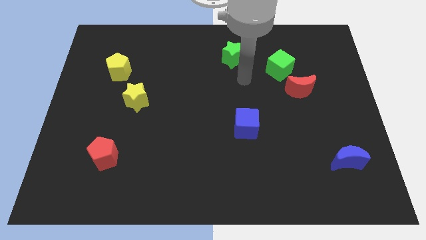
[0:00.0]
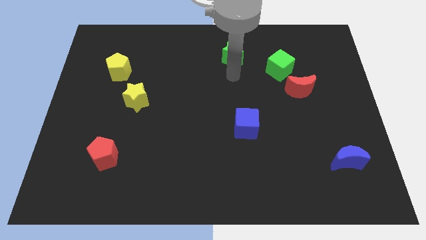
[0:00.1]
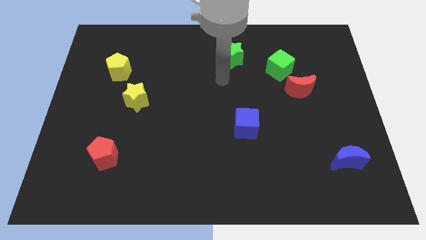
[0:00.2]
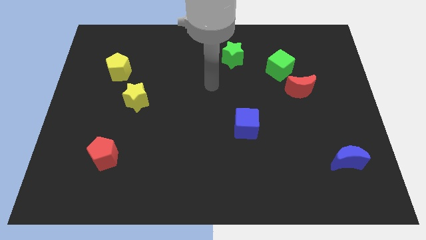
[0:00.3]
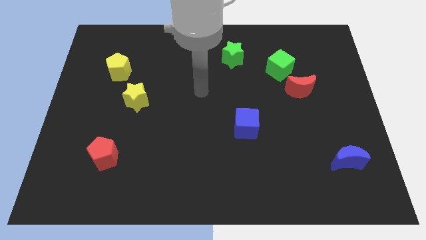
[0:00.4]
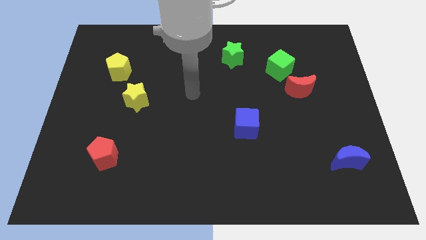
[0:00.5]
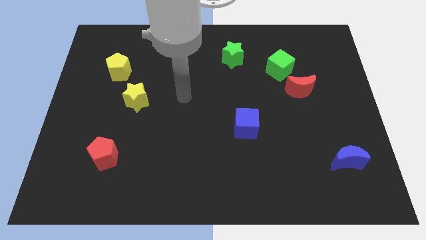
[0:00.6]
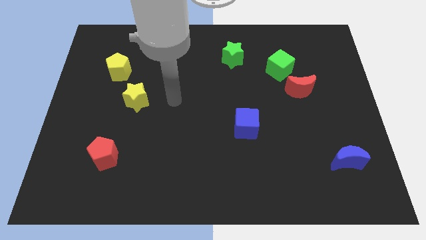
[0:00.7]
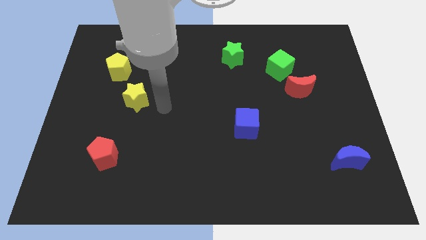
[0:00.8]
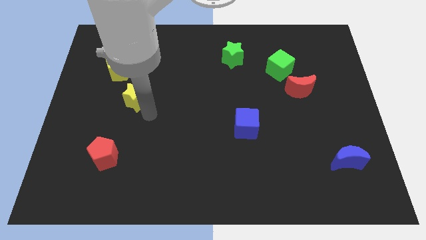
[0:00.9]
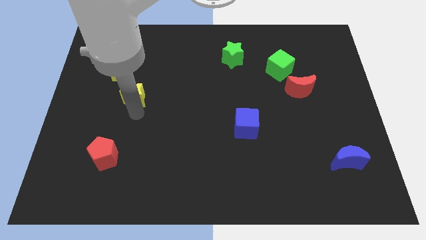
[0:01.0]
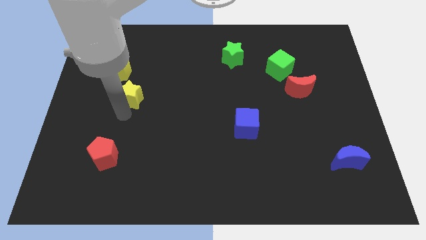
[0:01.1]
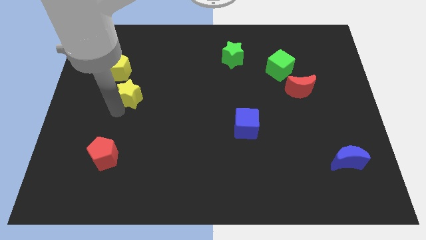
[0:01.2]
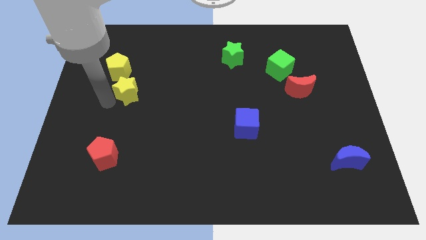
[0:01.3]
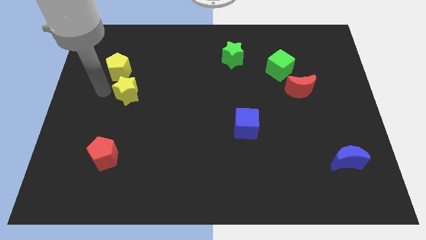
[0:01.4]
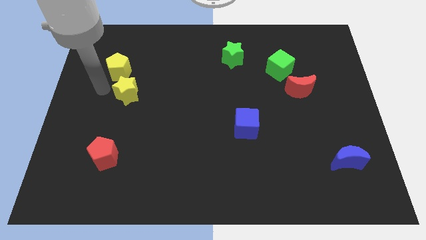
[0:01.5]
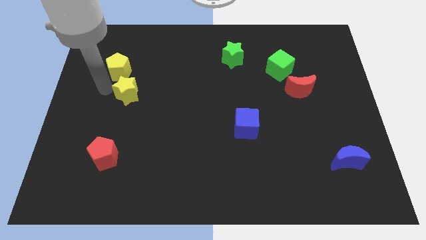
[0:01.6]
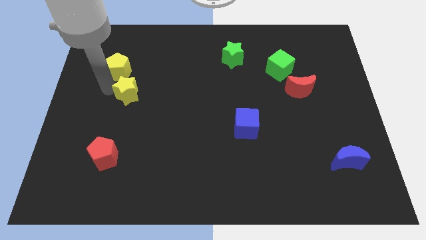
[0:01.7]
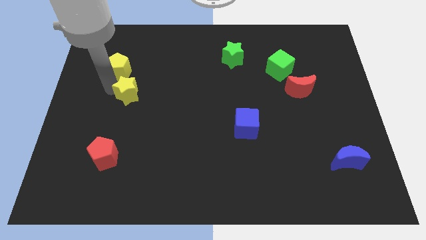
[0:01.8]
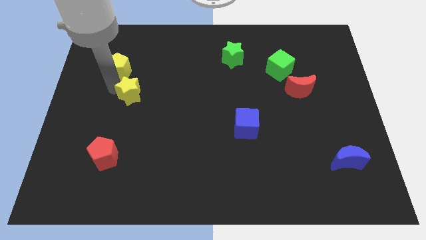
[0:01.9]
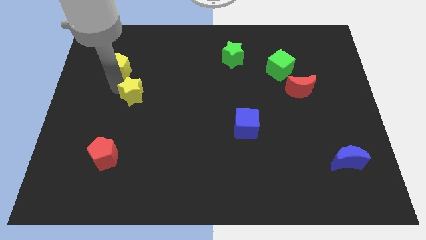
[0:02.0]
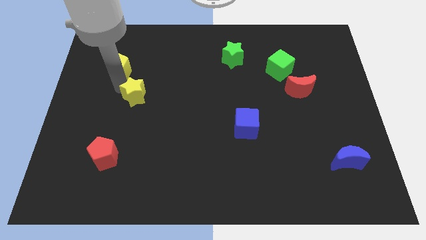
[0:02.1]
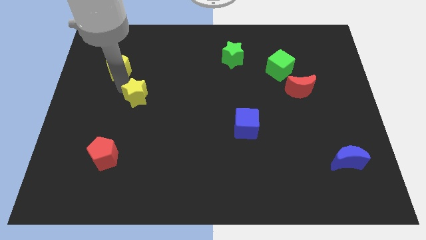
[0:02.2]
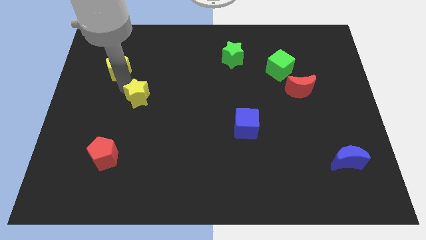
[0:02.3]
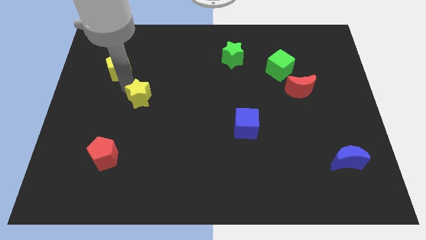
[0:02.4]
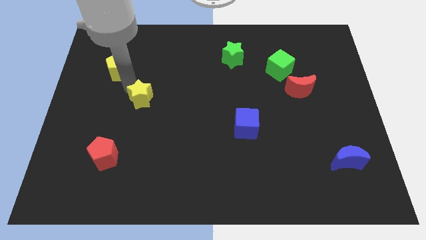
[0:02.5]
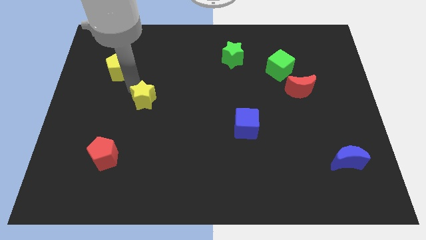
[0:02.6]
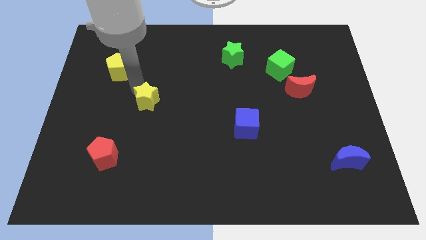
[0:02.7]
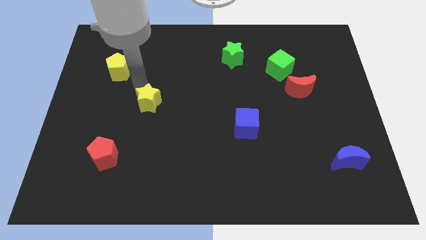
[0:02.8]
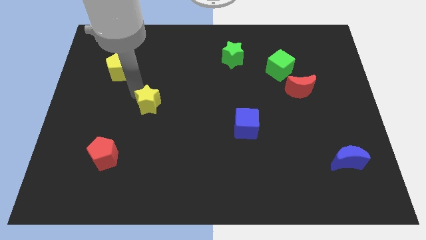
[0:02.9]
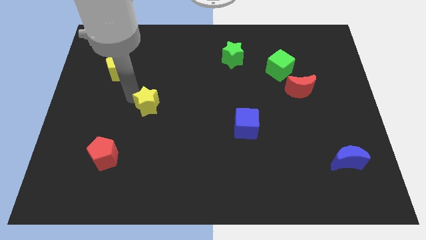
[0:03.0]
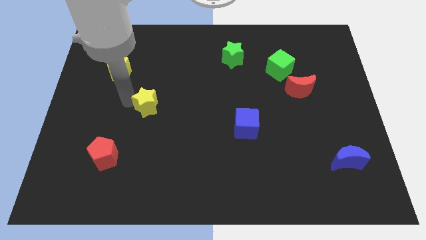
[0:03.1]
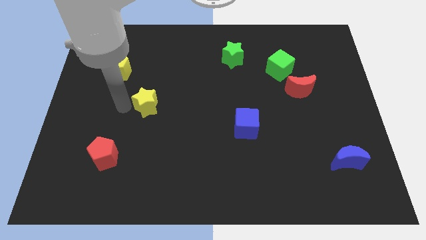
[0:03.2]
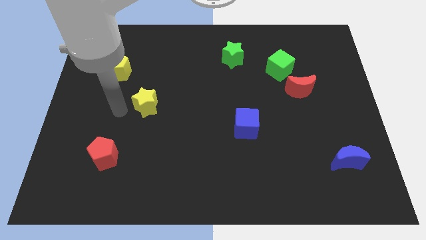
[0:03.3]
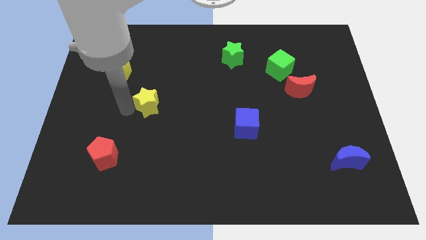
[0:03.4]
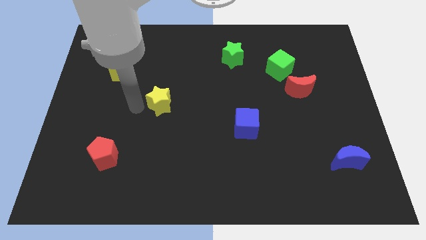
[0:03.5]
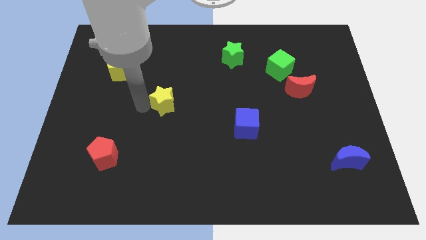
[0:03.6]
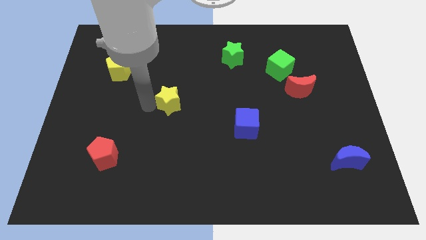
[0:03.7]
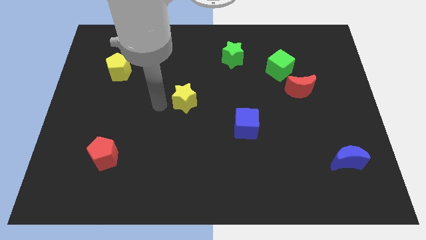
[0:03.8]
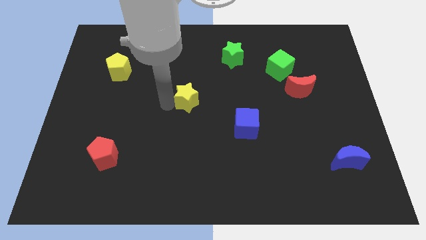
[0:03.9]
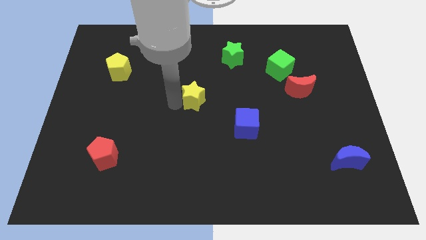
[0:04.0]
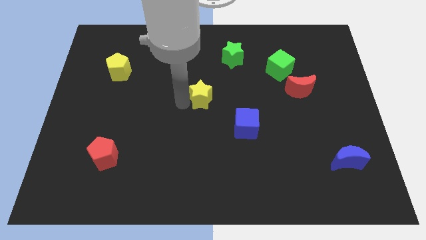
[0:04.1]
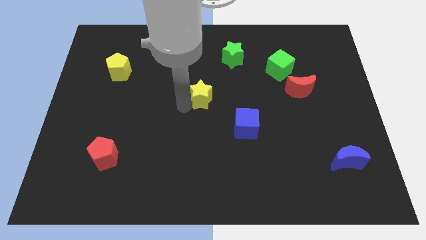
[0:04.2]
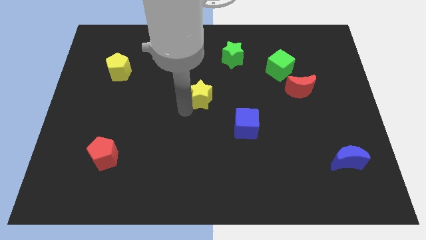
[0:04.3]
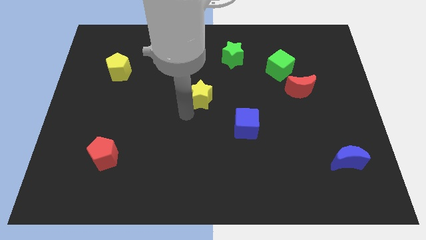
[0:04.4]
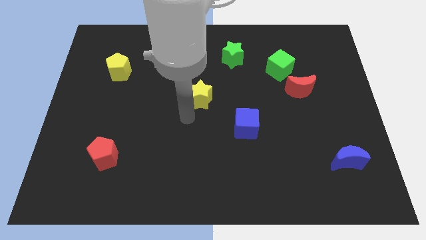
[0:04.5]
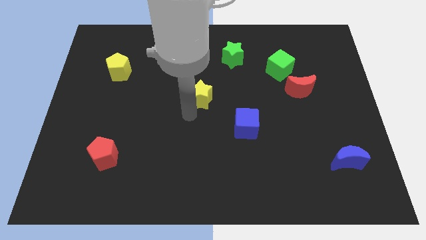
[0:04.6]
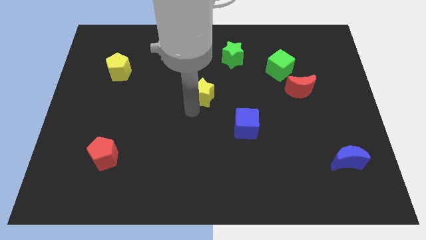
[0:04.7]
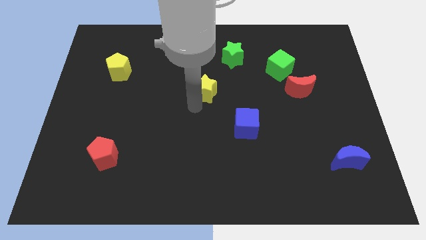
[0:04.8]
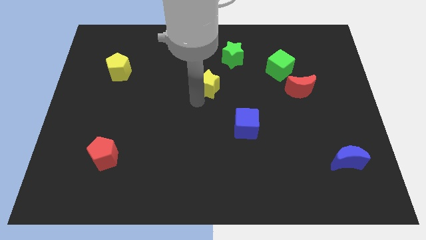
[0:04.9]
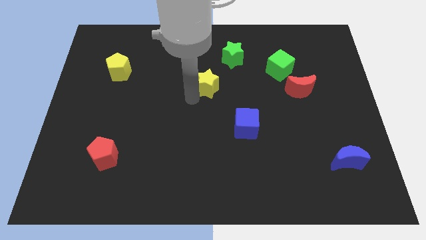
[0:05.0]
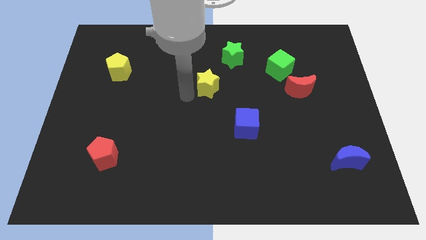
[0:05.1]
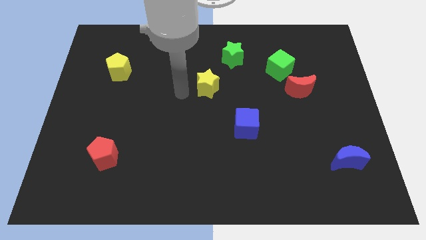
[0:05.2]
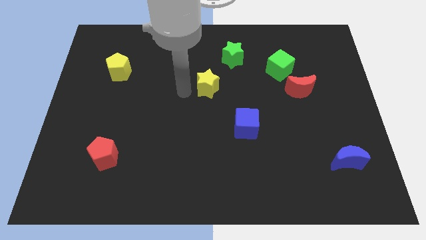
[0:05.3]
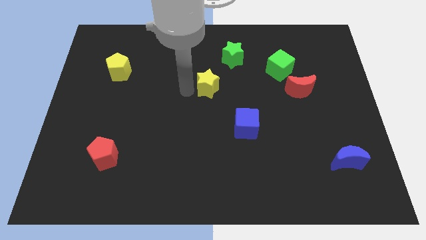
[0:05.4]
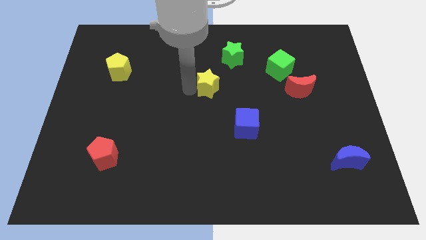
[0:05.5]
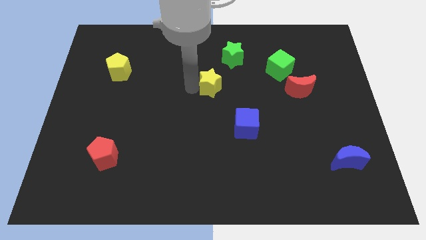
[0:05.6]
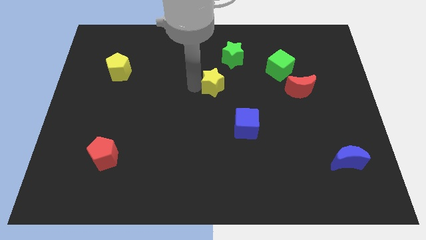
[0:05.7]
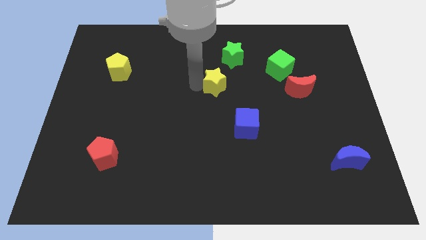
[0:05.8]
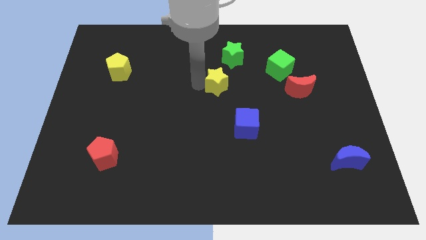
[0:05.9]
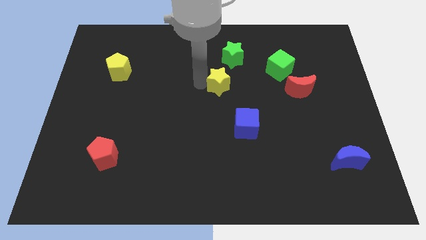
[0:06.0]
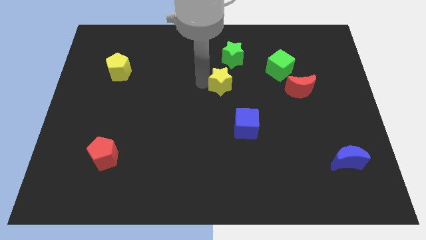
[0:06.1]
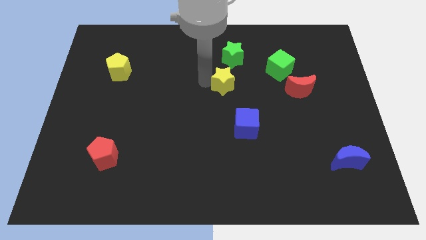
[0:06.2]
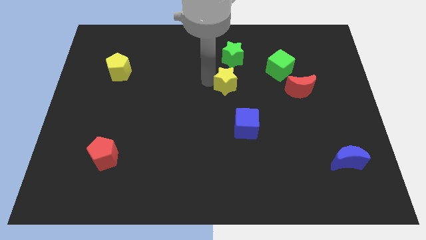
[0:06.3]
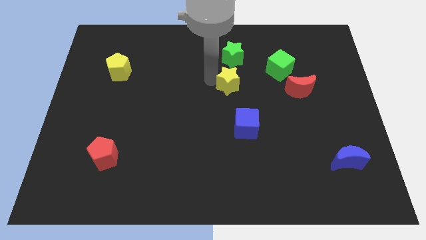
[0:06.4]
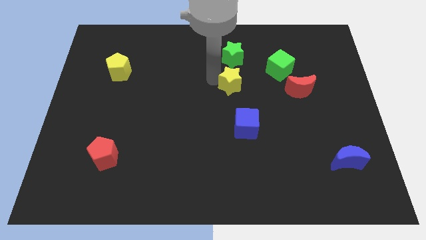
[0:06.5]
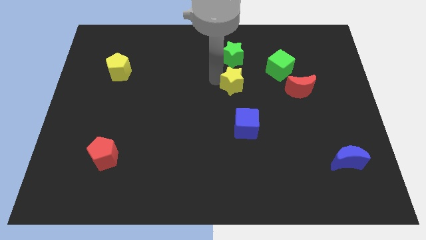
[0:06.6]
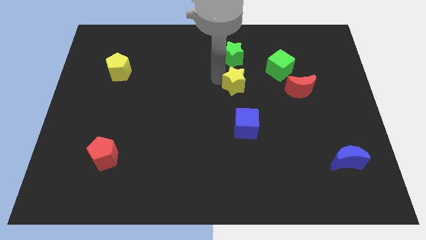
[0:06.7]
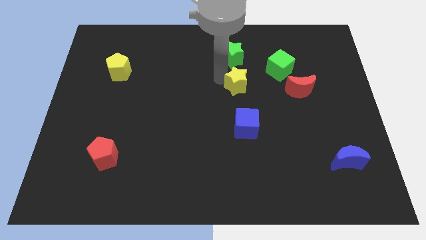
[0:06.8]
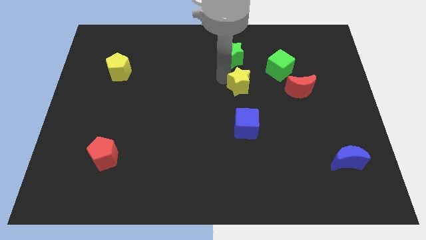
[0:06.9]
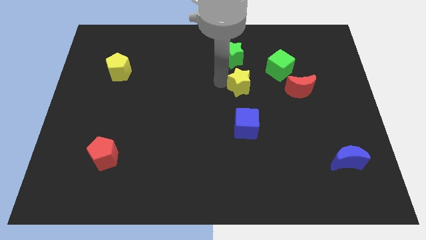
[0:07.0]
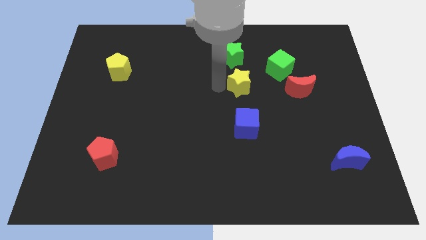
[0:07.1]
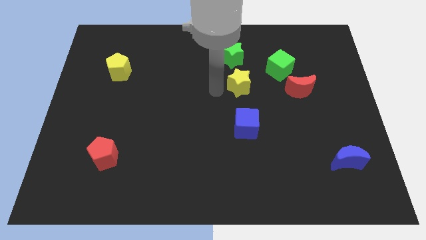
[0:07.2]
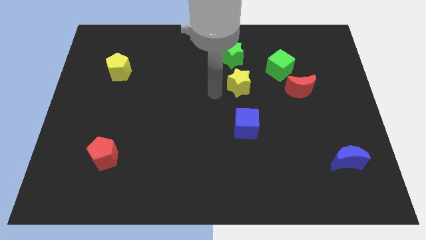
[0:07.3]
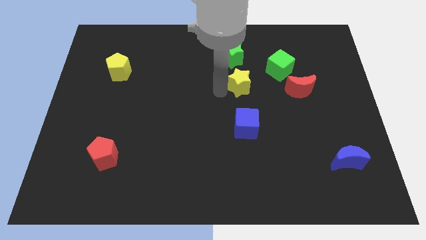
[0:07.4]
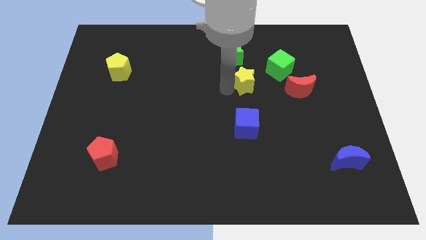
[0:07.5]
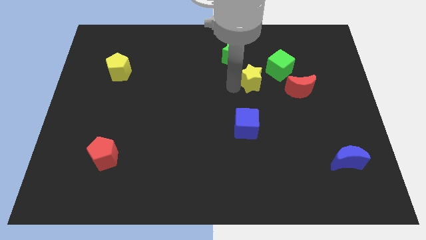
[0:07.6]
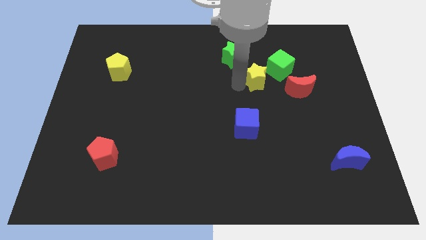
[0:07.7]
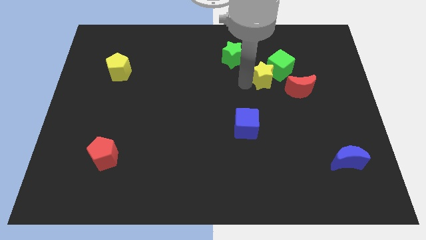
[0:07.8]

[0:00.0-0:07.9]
move the yellow star to the green cube
